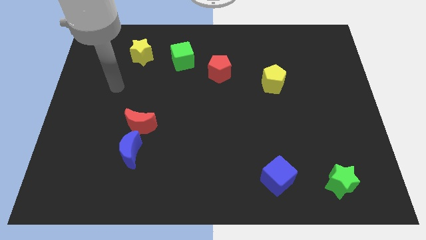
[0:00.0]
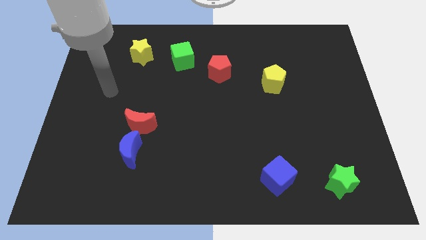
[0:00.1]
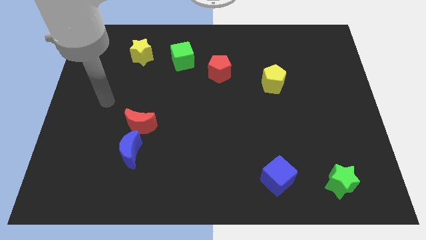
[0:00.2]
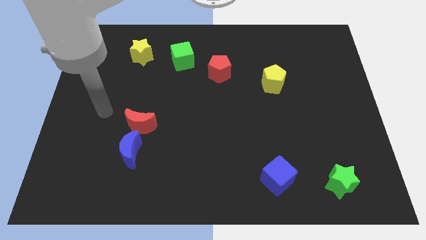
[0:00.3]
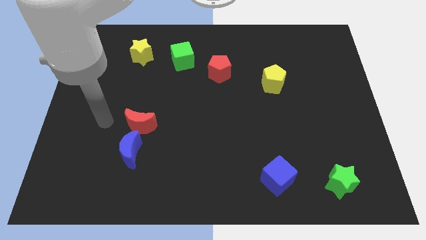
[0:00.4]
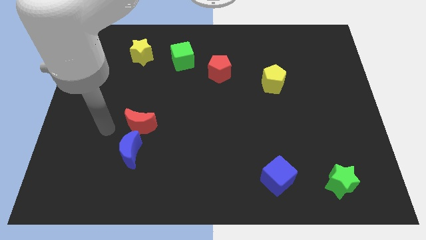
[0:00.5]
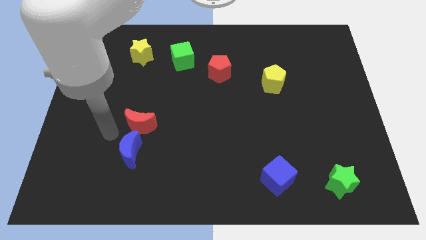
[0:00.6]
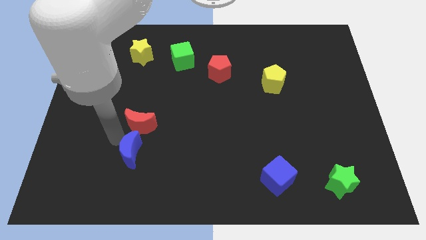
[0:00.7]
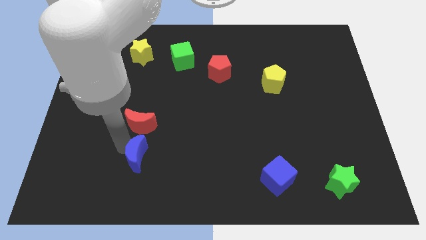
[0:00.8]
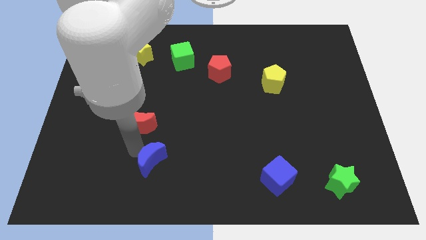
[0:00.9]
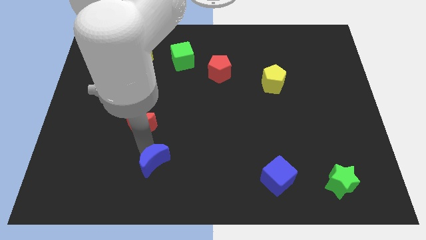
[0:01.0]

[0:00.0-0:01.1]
separate the red moon from the blue moon

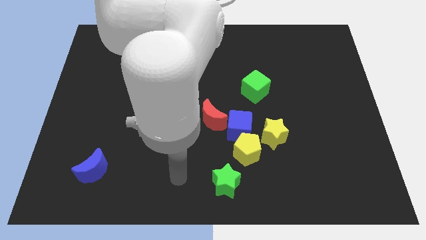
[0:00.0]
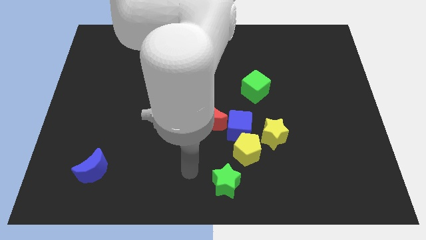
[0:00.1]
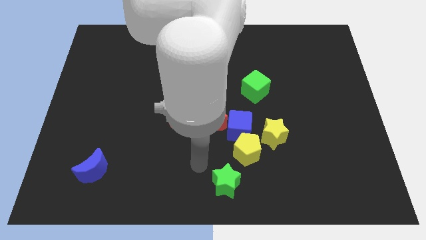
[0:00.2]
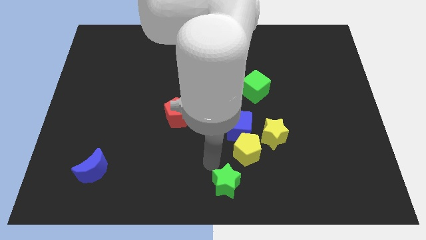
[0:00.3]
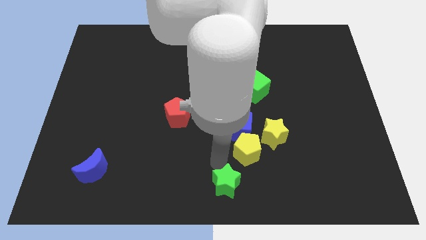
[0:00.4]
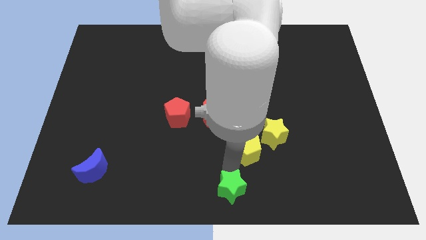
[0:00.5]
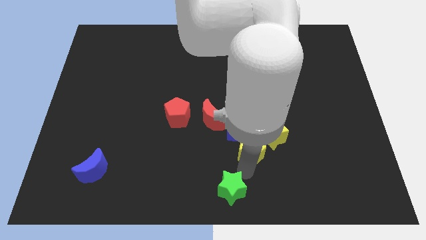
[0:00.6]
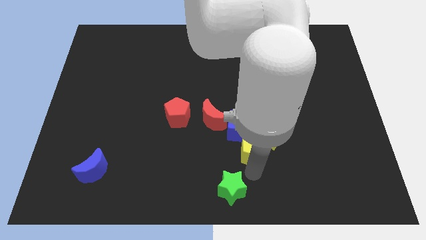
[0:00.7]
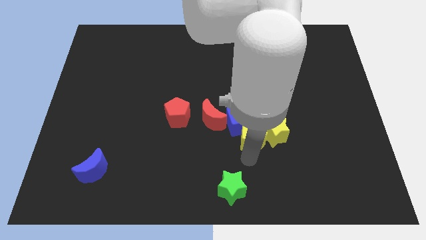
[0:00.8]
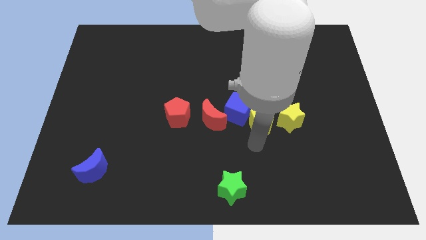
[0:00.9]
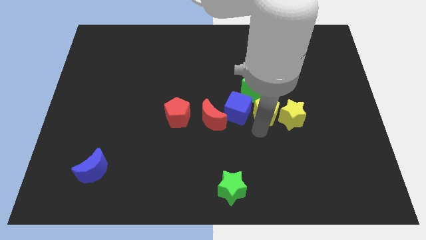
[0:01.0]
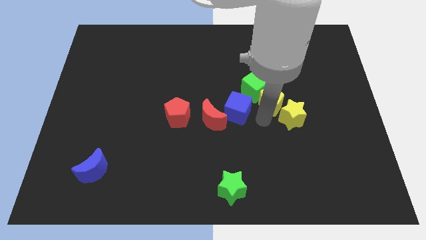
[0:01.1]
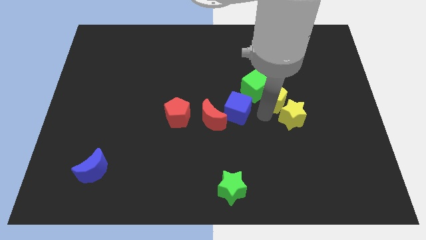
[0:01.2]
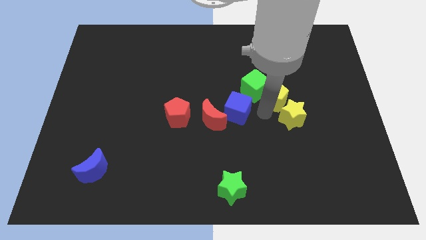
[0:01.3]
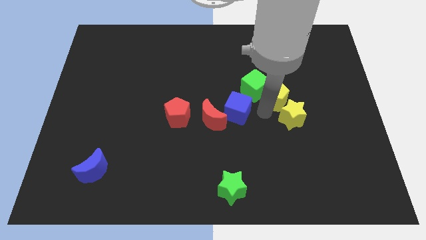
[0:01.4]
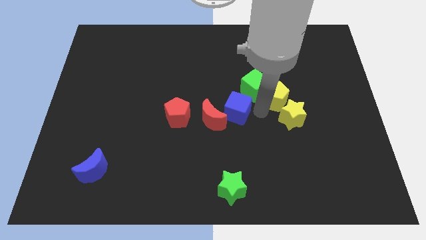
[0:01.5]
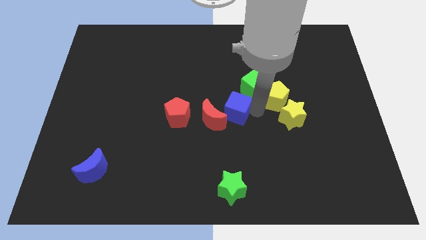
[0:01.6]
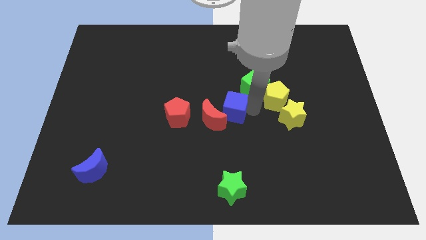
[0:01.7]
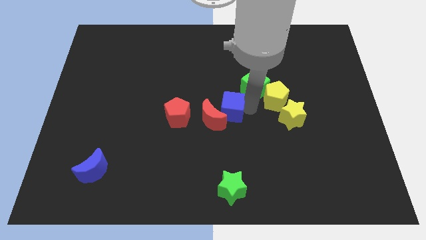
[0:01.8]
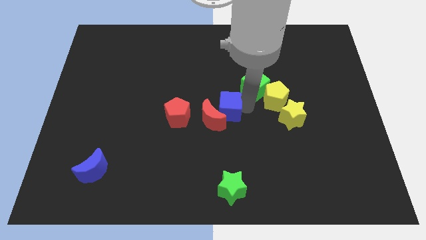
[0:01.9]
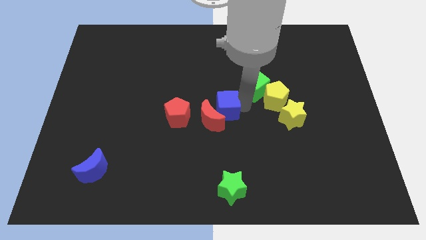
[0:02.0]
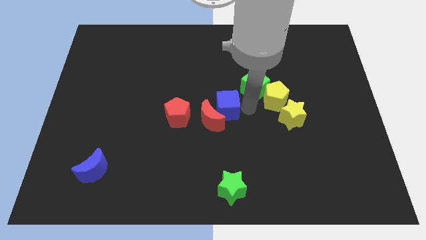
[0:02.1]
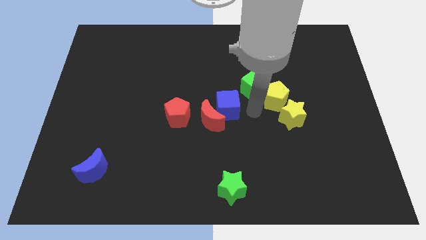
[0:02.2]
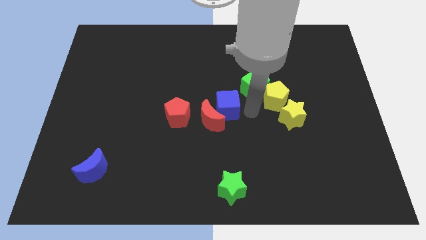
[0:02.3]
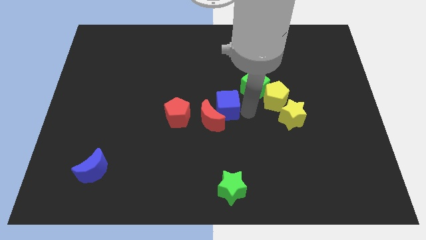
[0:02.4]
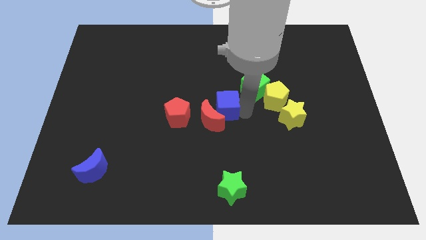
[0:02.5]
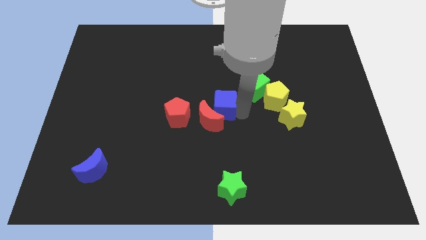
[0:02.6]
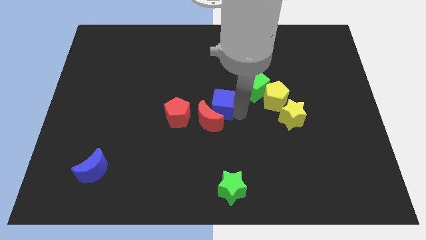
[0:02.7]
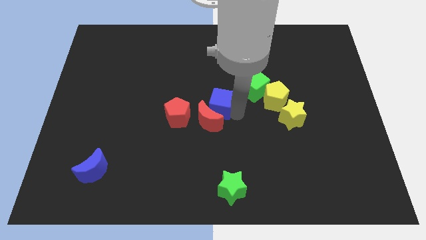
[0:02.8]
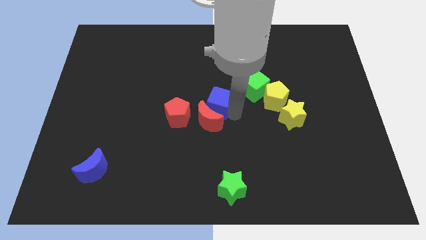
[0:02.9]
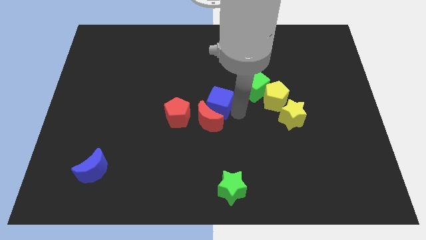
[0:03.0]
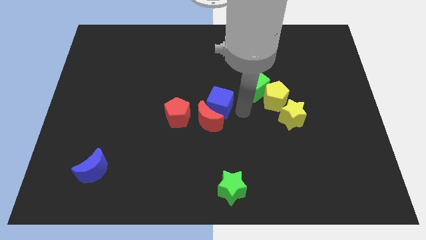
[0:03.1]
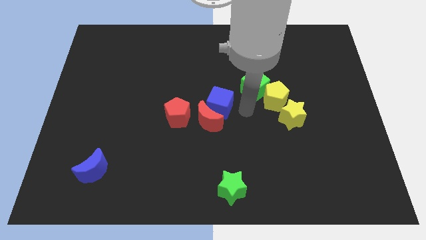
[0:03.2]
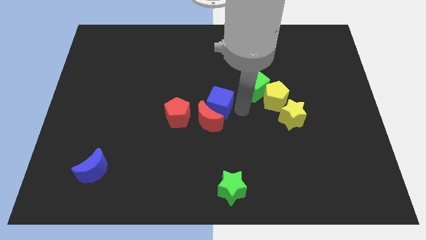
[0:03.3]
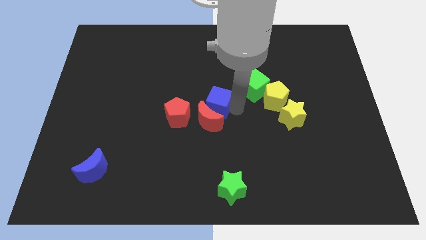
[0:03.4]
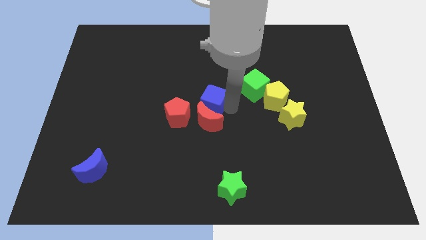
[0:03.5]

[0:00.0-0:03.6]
separate the blue cube from the yellow pentagon, red moon, and yellow star

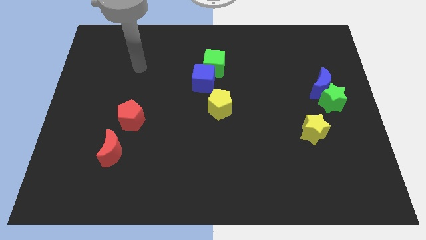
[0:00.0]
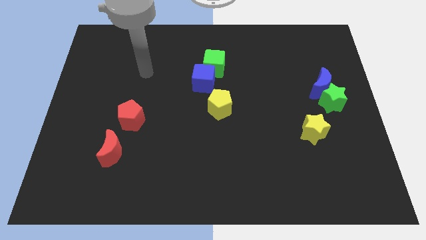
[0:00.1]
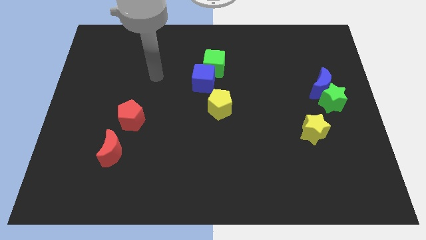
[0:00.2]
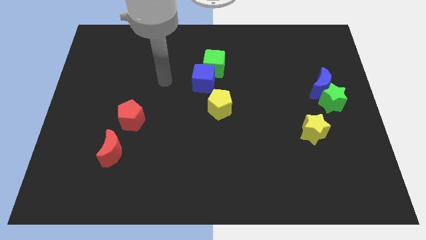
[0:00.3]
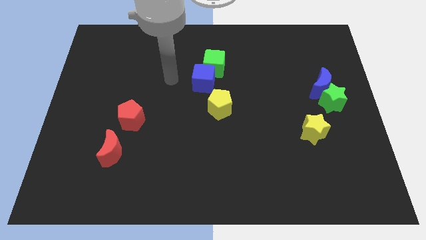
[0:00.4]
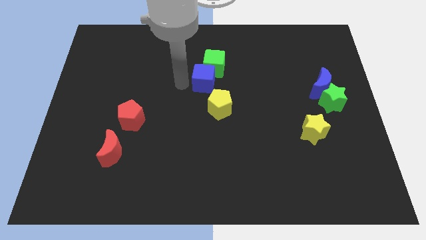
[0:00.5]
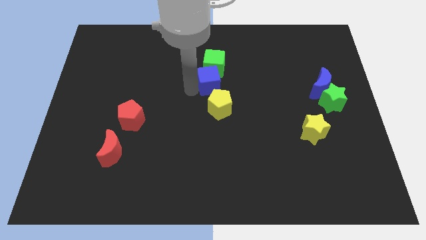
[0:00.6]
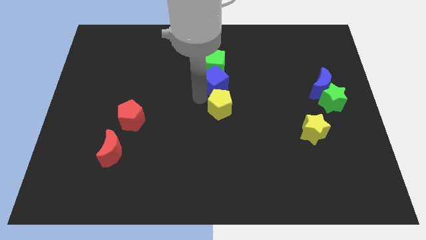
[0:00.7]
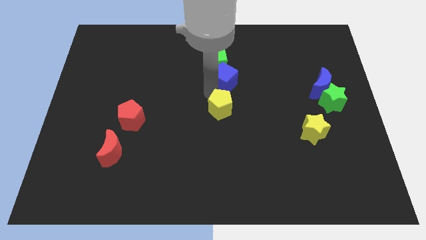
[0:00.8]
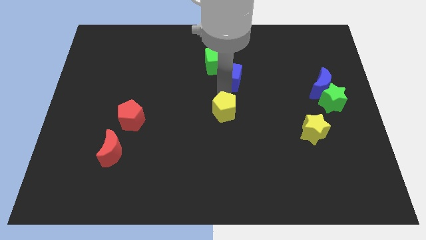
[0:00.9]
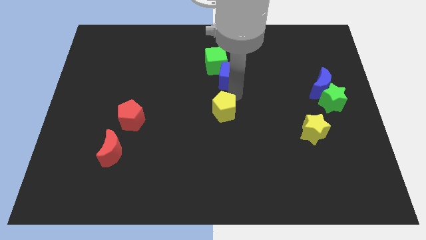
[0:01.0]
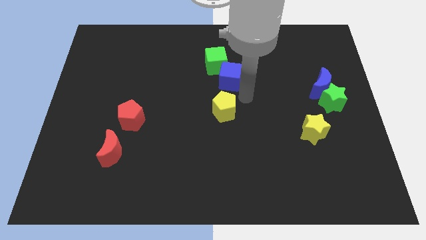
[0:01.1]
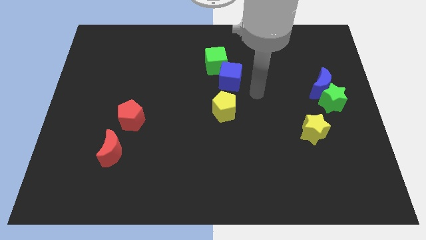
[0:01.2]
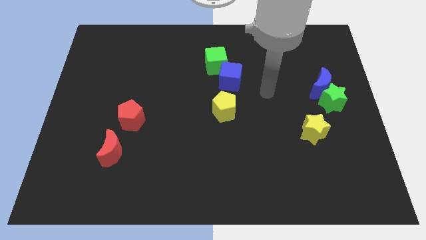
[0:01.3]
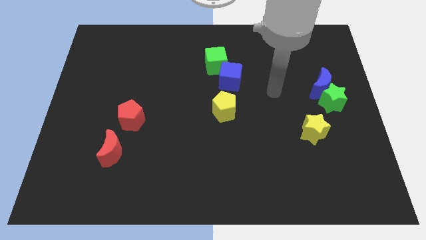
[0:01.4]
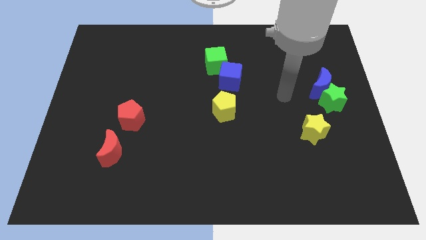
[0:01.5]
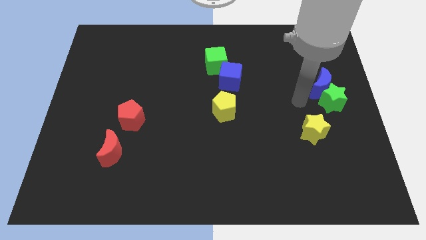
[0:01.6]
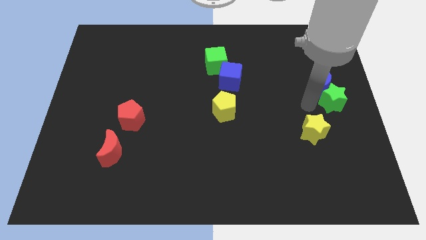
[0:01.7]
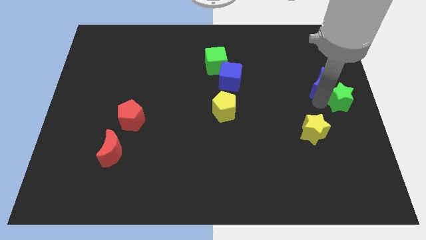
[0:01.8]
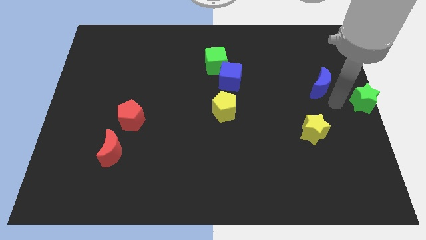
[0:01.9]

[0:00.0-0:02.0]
separate the blue moon from the green star

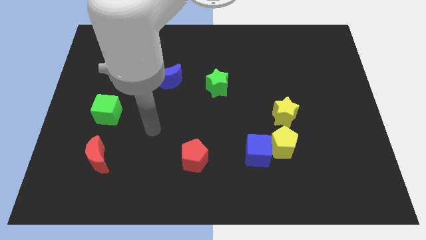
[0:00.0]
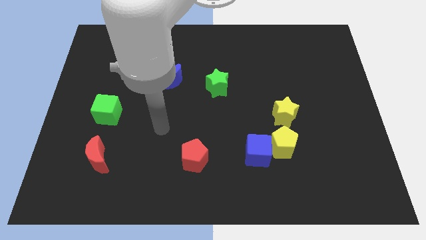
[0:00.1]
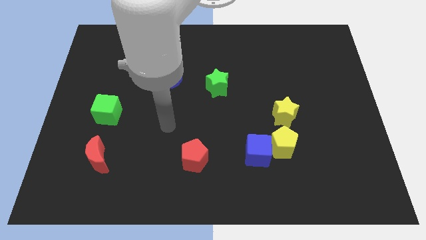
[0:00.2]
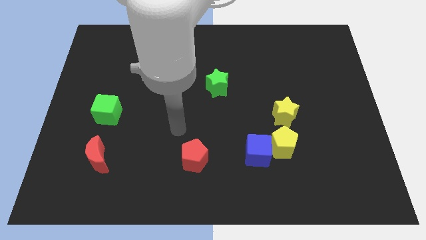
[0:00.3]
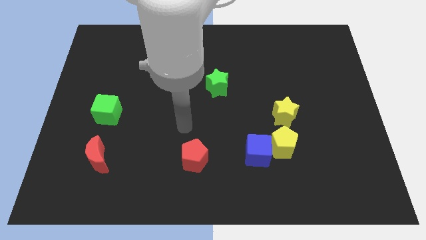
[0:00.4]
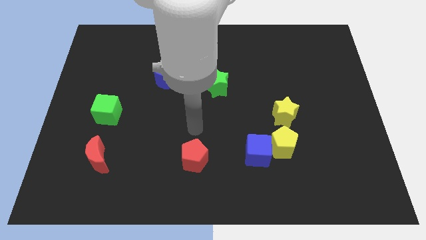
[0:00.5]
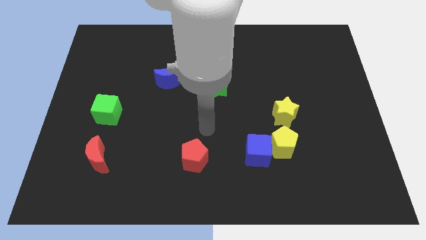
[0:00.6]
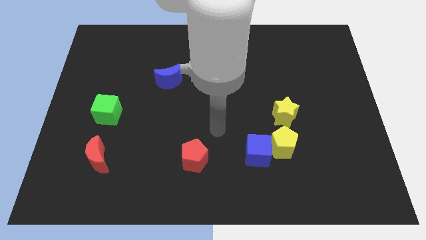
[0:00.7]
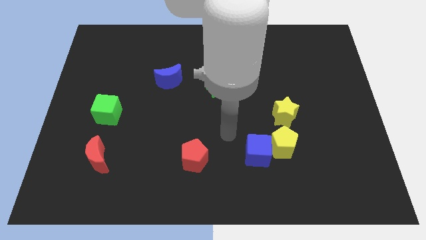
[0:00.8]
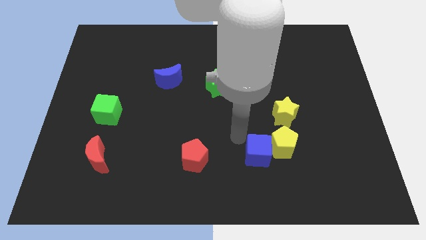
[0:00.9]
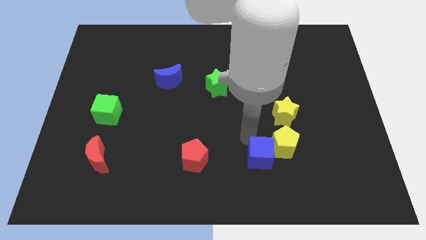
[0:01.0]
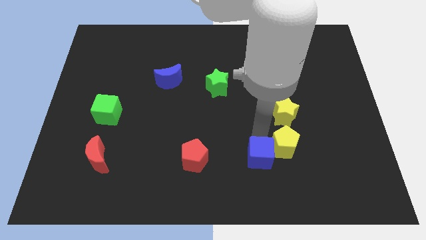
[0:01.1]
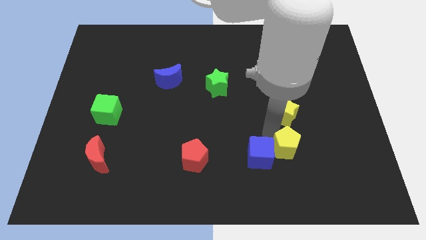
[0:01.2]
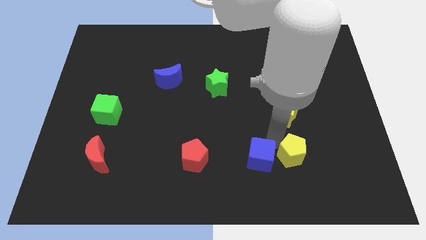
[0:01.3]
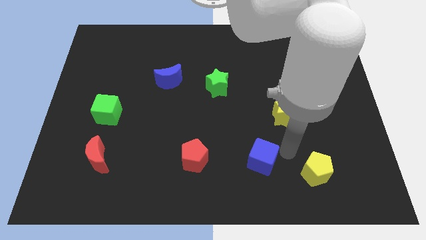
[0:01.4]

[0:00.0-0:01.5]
separate the blue cube from the yellow pentagon

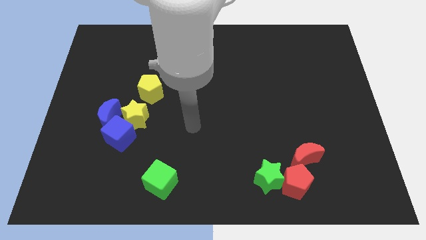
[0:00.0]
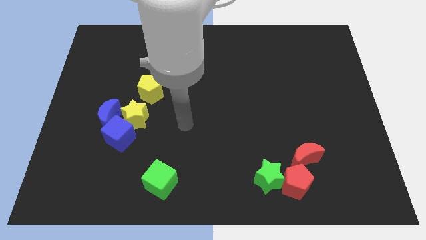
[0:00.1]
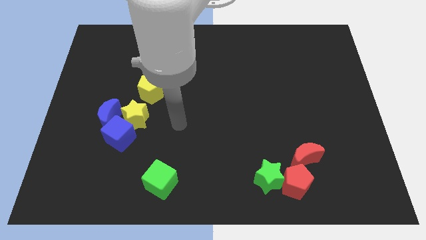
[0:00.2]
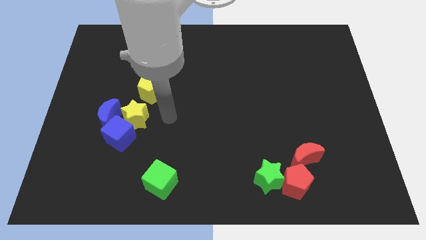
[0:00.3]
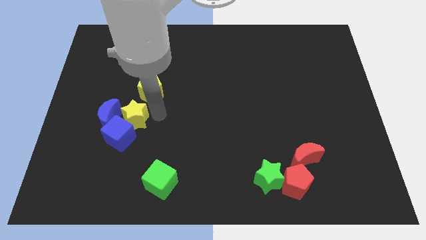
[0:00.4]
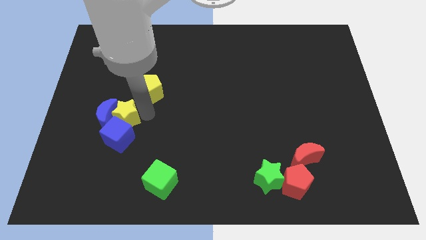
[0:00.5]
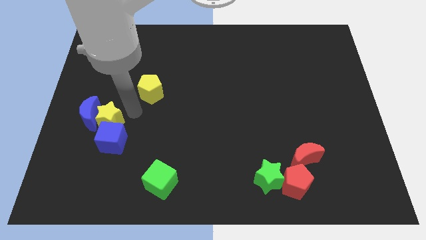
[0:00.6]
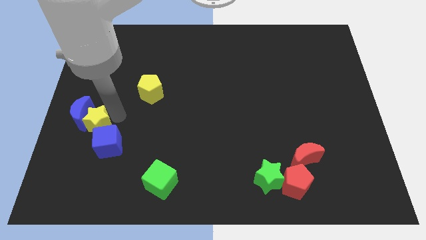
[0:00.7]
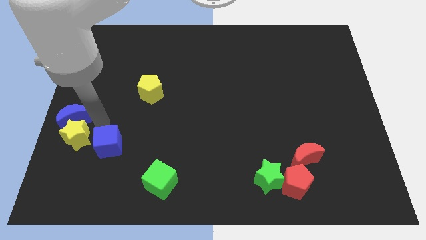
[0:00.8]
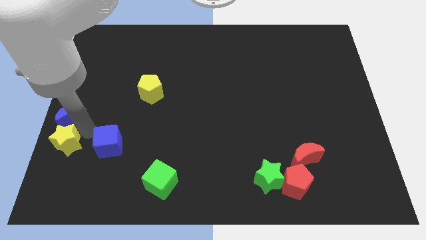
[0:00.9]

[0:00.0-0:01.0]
separate the blue cube from the blue moon and yellow star

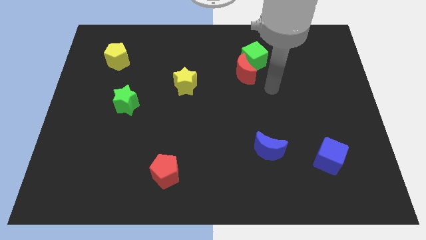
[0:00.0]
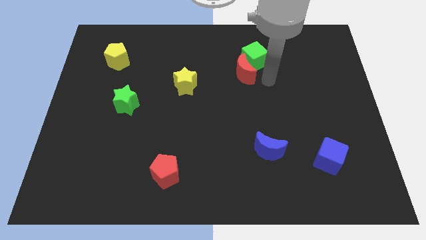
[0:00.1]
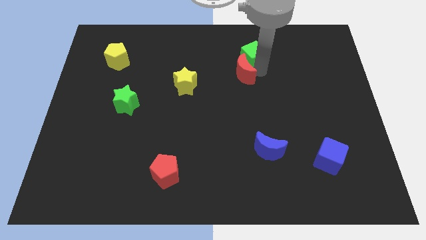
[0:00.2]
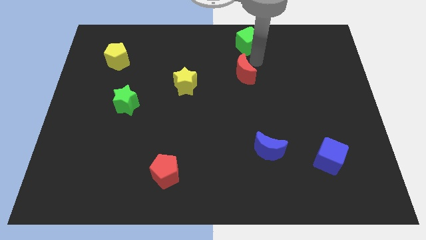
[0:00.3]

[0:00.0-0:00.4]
pull the red moon apart from the green cube
